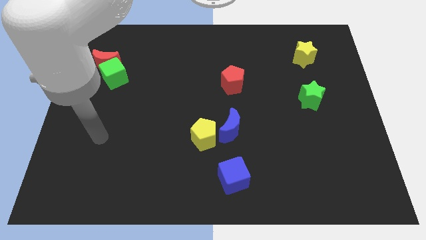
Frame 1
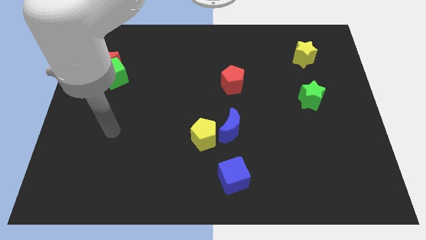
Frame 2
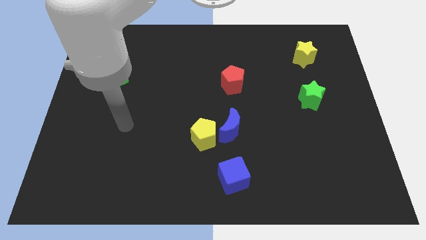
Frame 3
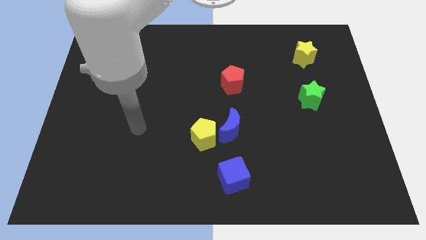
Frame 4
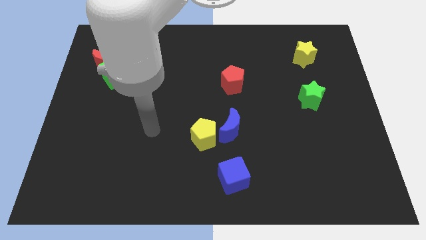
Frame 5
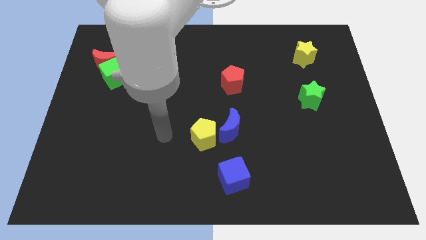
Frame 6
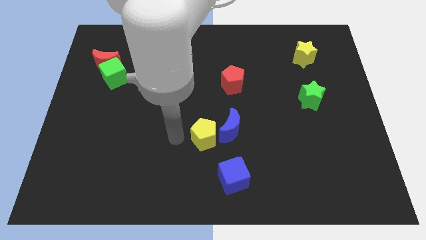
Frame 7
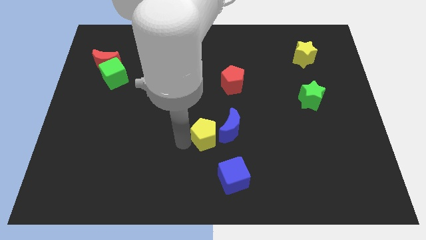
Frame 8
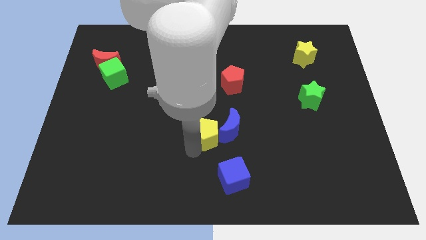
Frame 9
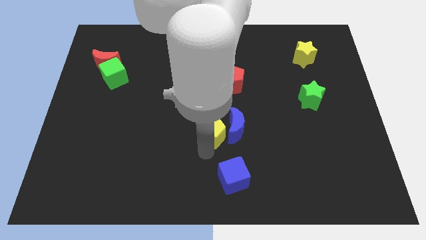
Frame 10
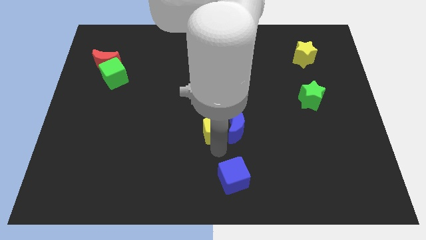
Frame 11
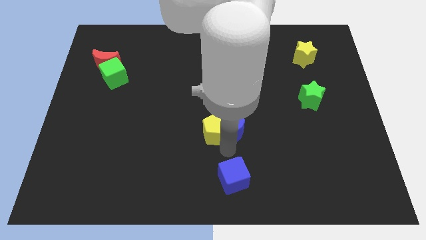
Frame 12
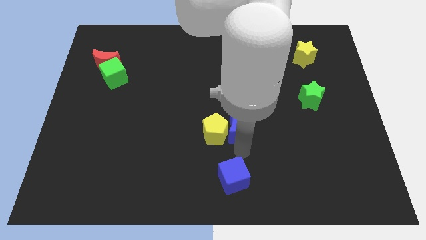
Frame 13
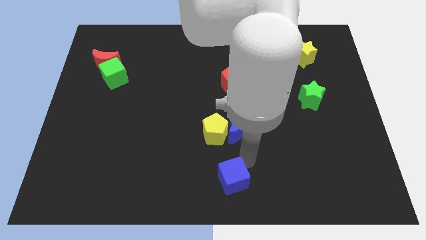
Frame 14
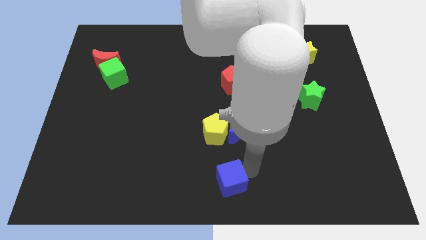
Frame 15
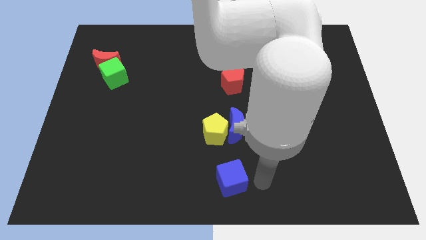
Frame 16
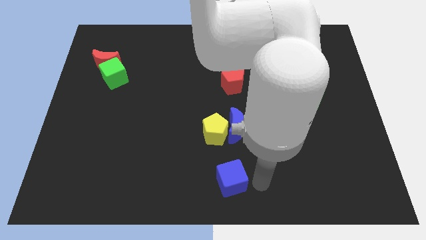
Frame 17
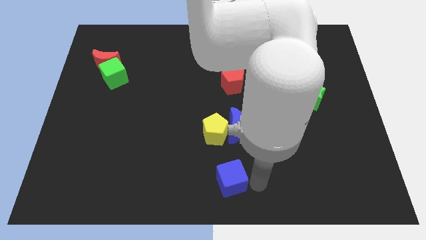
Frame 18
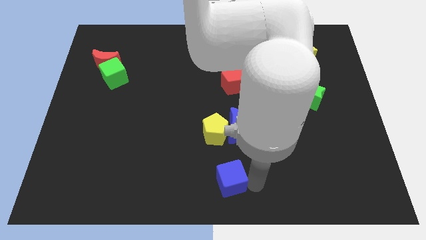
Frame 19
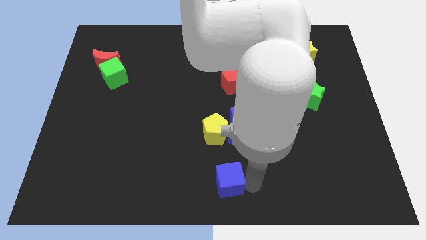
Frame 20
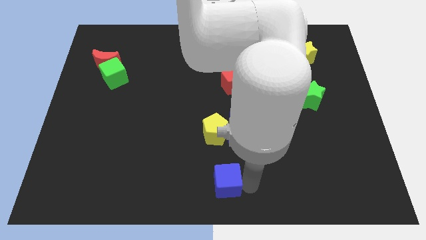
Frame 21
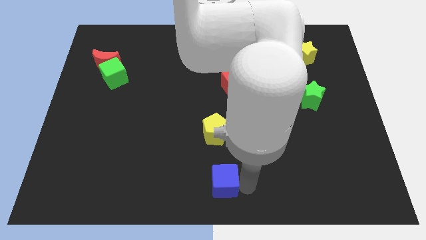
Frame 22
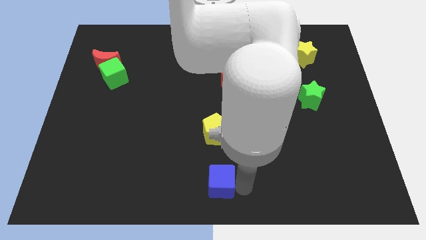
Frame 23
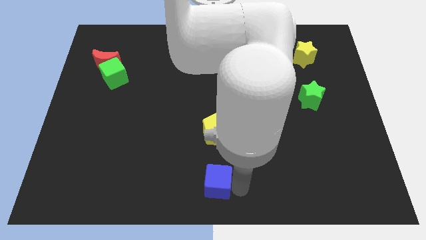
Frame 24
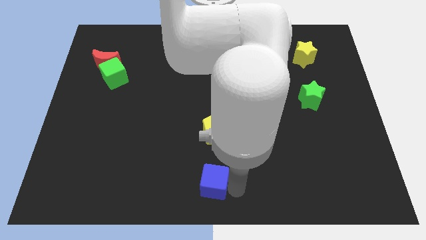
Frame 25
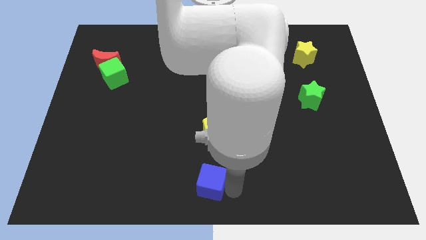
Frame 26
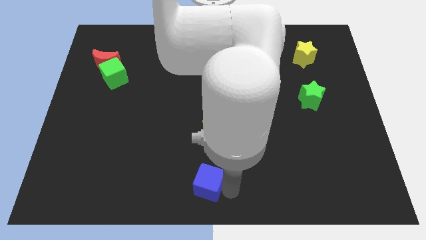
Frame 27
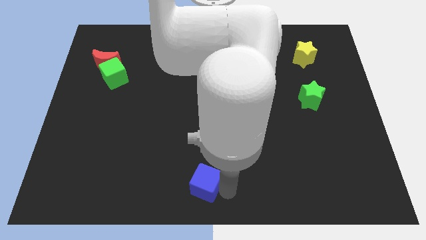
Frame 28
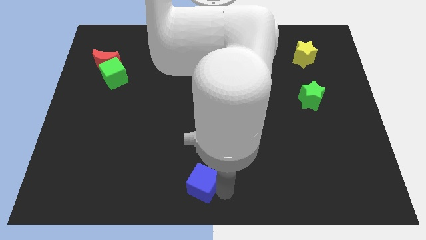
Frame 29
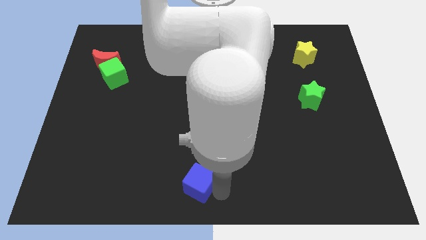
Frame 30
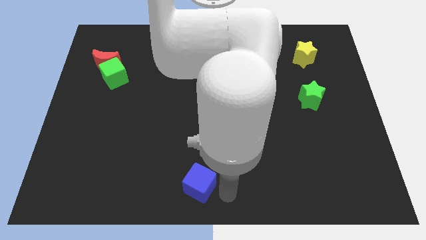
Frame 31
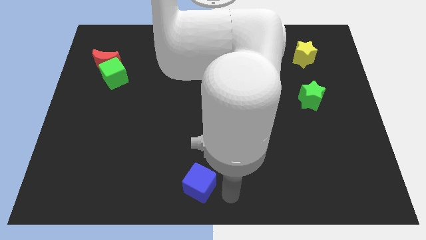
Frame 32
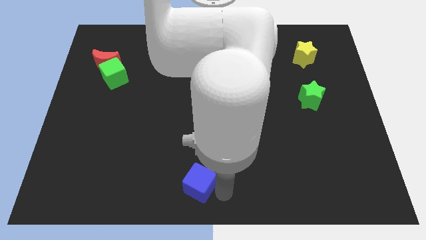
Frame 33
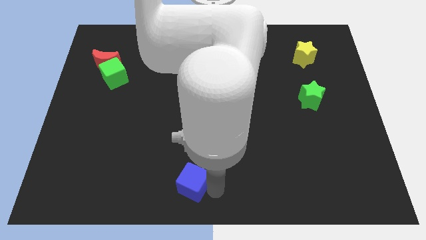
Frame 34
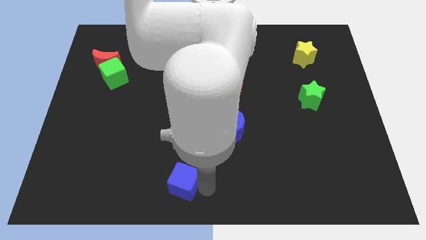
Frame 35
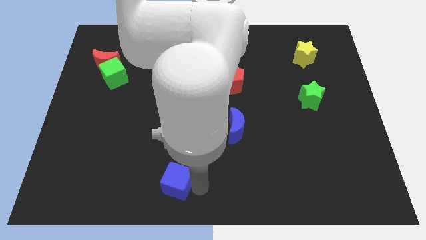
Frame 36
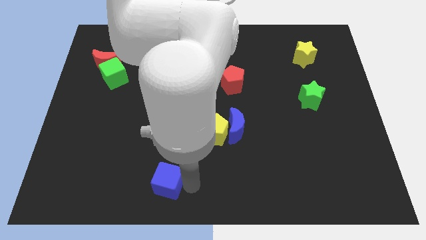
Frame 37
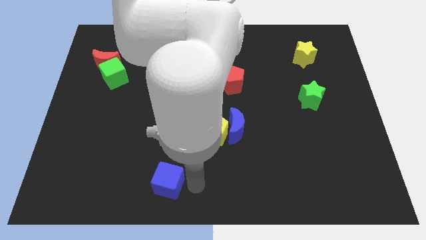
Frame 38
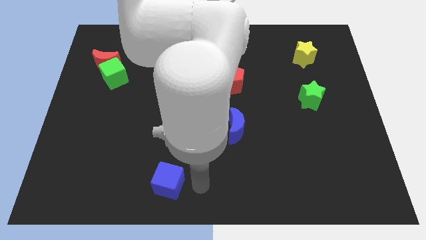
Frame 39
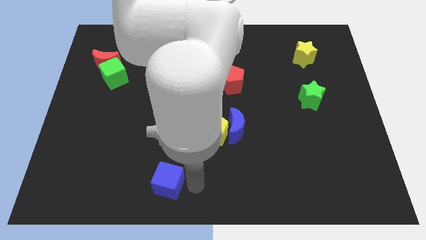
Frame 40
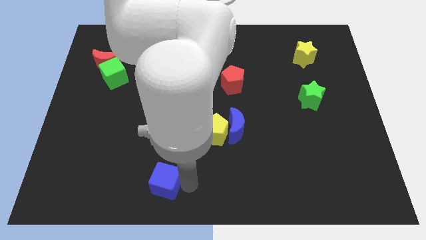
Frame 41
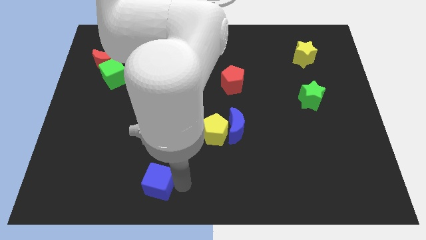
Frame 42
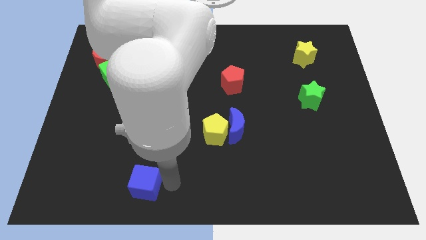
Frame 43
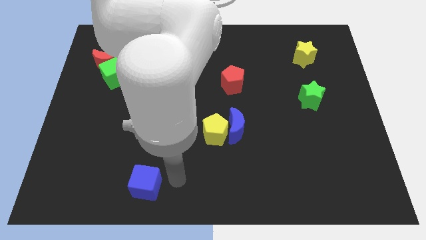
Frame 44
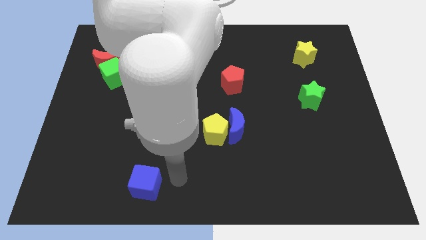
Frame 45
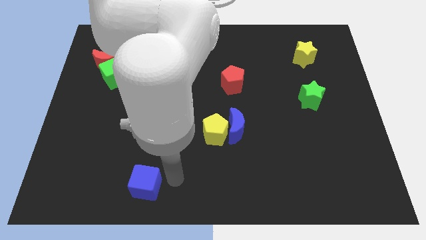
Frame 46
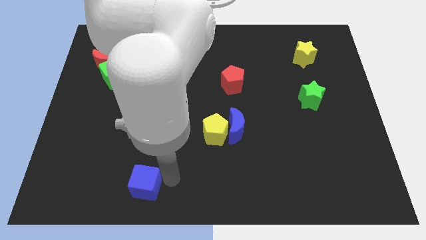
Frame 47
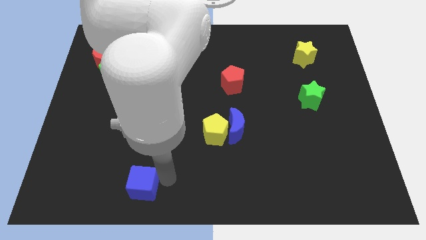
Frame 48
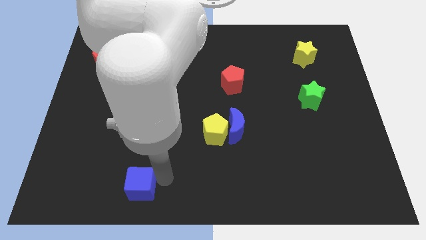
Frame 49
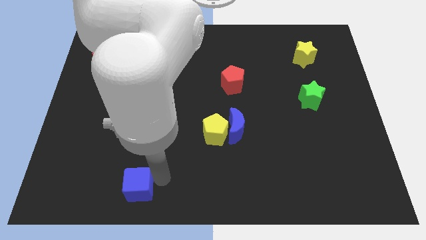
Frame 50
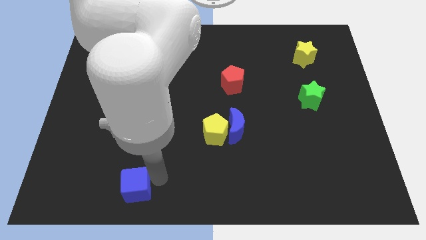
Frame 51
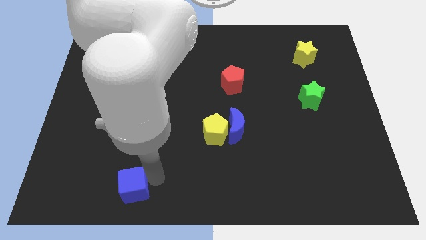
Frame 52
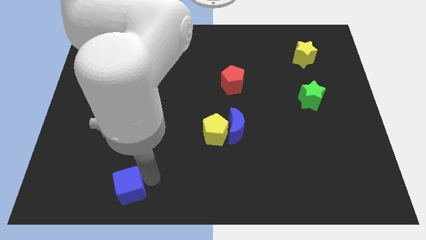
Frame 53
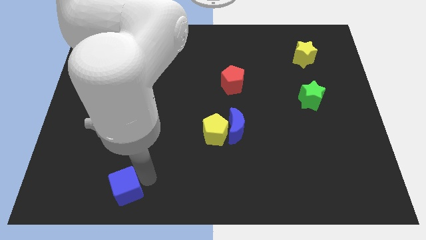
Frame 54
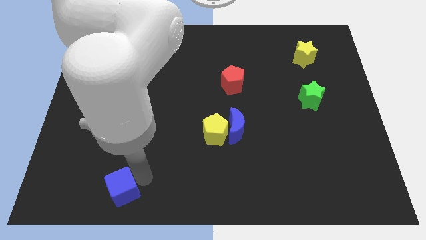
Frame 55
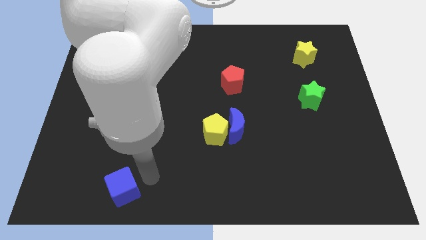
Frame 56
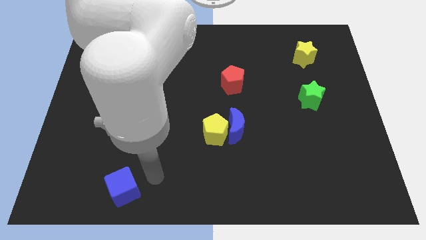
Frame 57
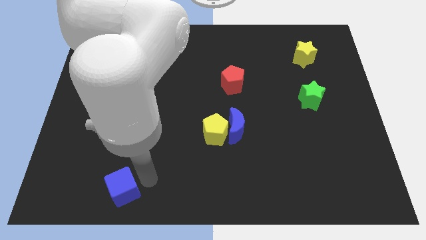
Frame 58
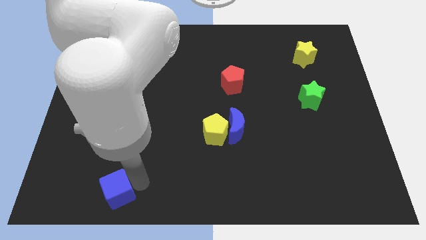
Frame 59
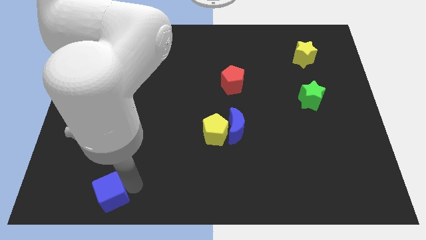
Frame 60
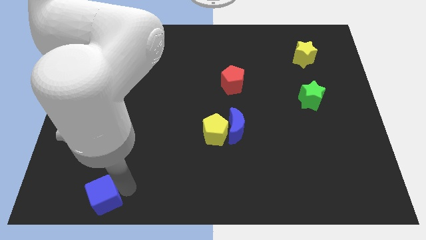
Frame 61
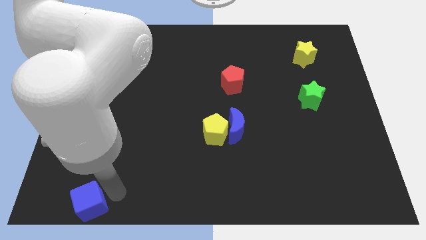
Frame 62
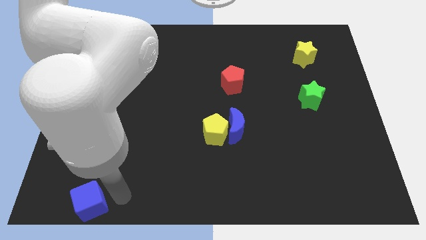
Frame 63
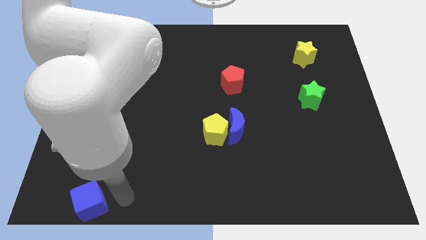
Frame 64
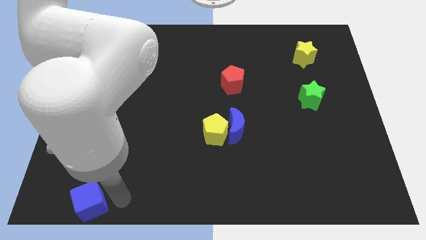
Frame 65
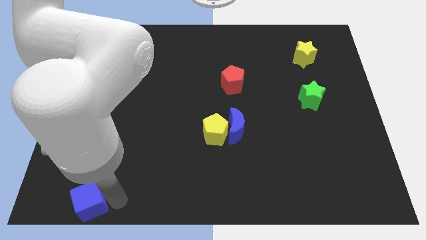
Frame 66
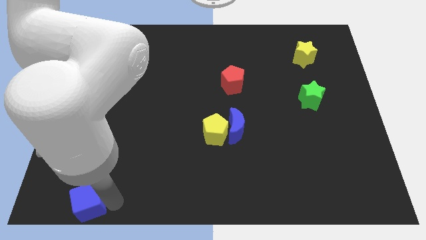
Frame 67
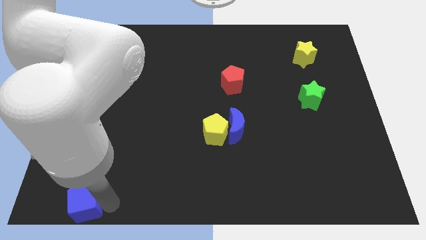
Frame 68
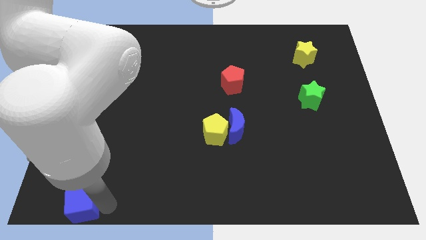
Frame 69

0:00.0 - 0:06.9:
put the blue cube to the bottom left corner
